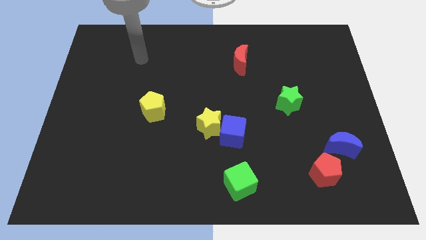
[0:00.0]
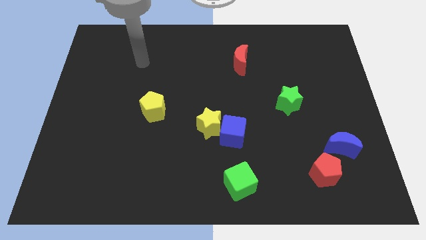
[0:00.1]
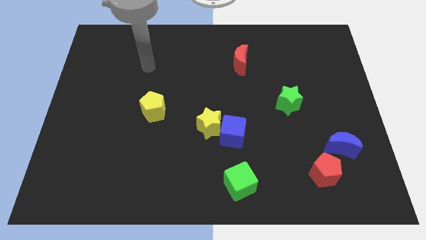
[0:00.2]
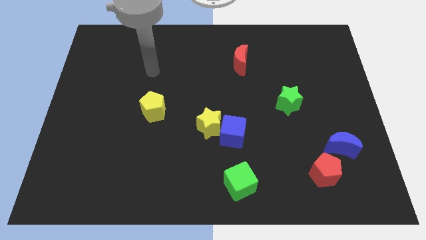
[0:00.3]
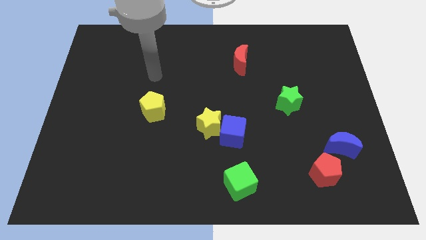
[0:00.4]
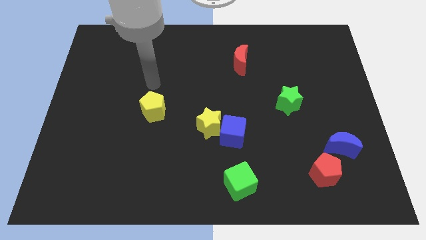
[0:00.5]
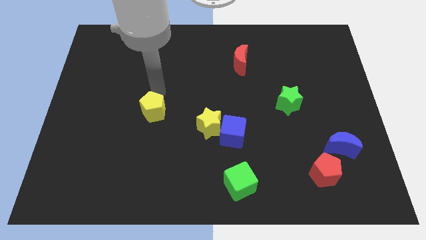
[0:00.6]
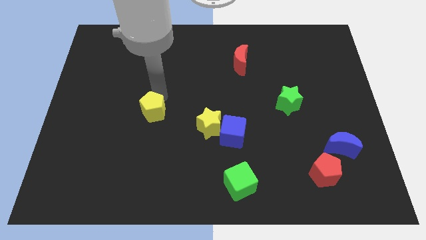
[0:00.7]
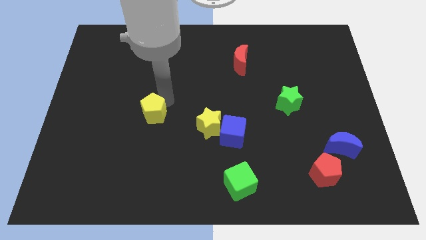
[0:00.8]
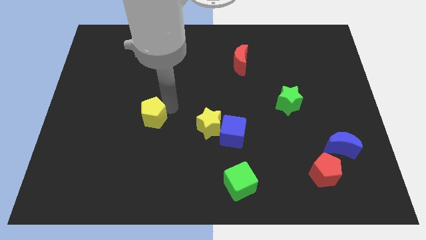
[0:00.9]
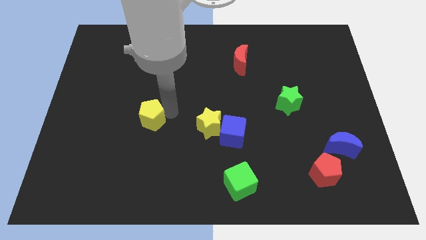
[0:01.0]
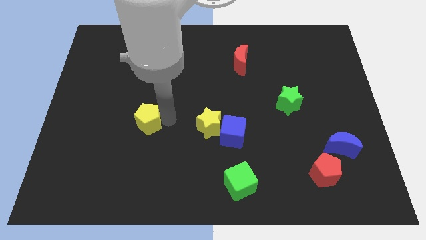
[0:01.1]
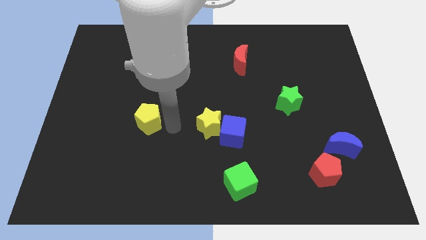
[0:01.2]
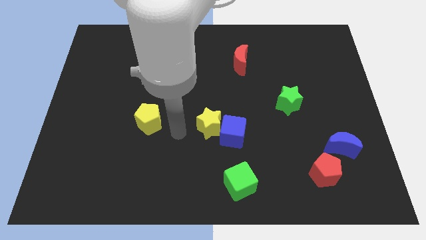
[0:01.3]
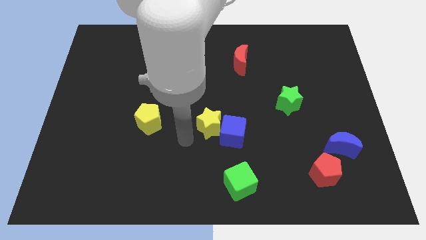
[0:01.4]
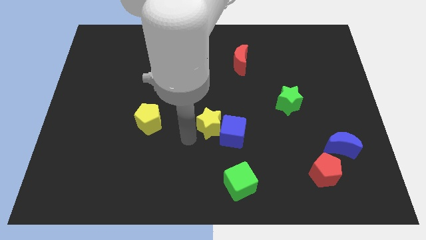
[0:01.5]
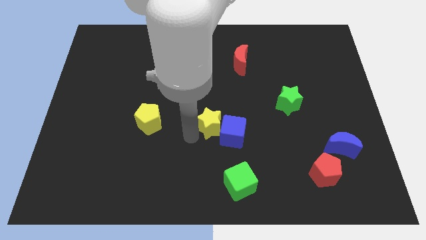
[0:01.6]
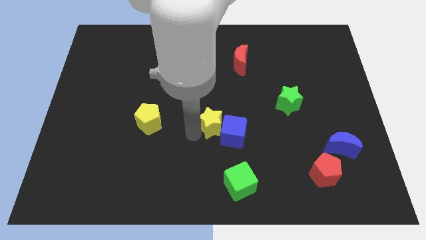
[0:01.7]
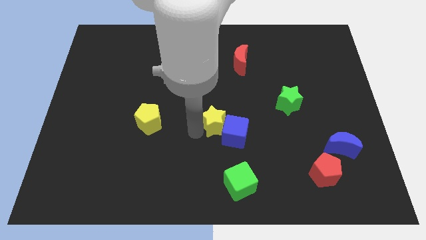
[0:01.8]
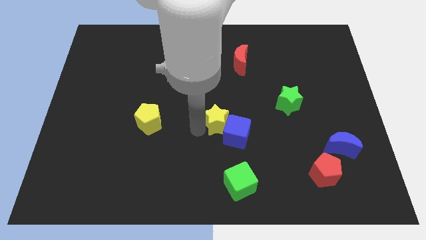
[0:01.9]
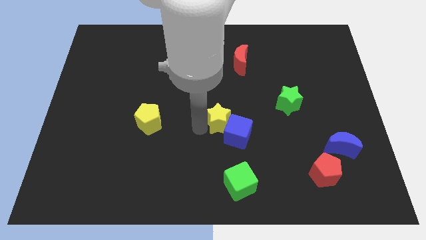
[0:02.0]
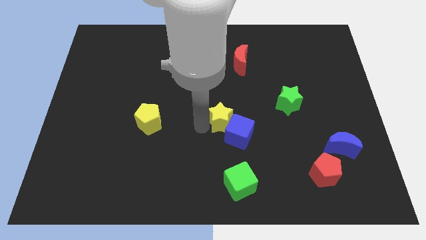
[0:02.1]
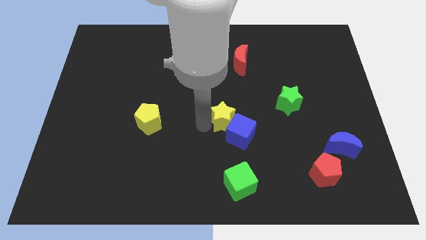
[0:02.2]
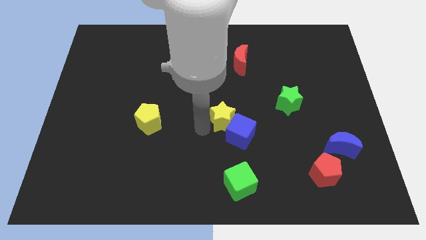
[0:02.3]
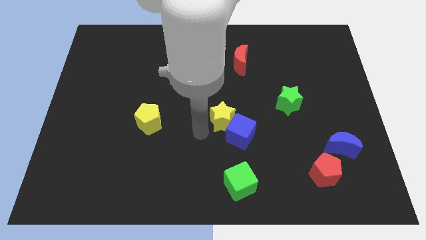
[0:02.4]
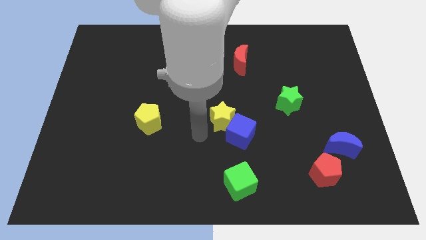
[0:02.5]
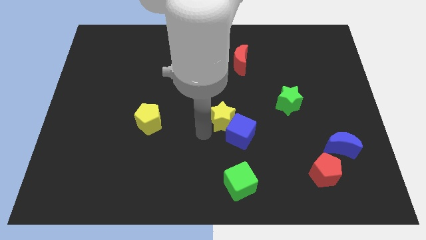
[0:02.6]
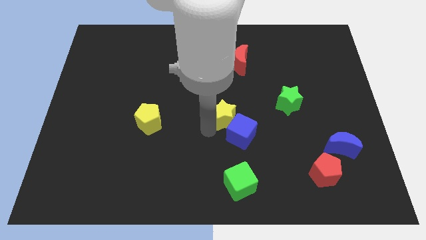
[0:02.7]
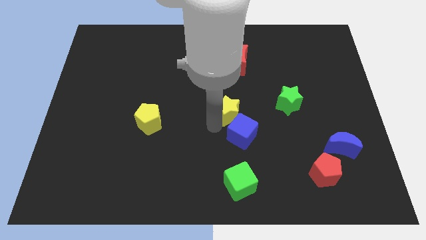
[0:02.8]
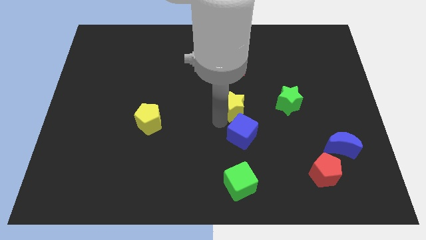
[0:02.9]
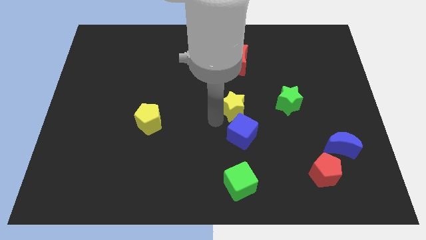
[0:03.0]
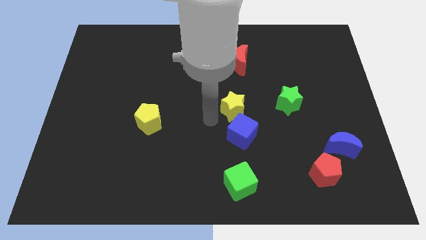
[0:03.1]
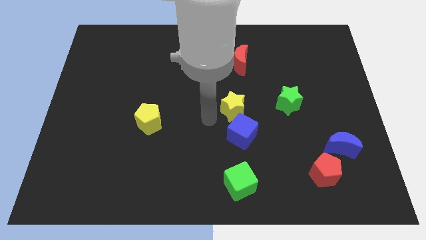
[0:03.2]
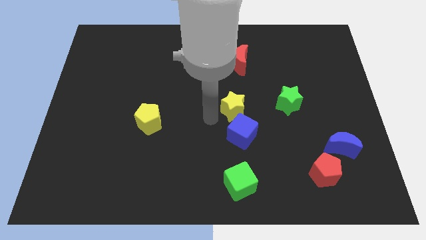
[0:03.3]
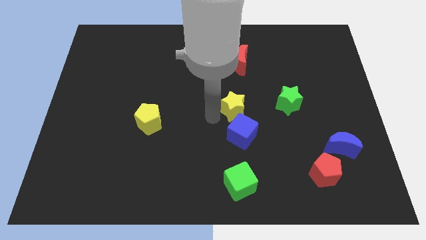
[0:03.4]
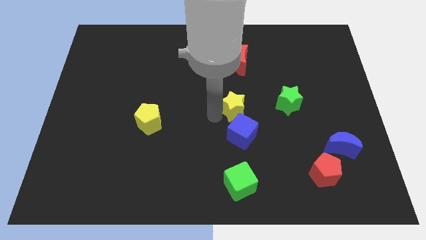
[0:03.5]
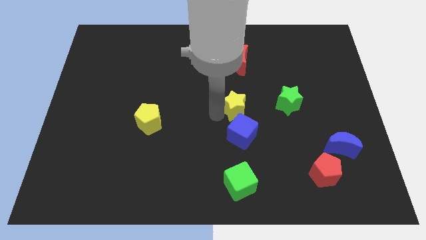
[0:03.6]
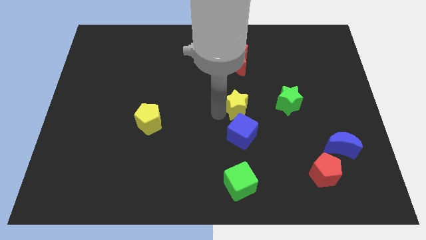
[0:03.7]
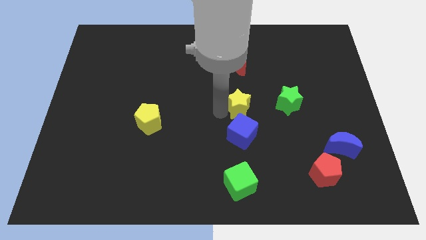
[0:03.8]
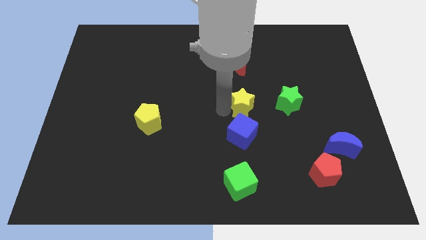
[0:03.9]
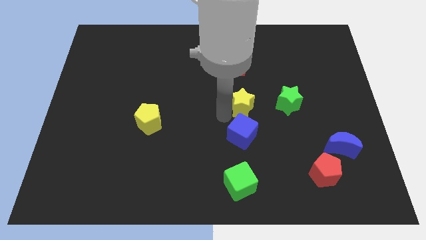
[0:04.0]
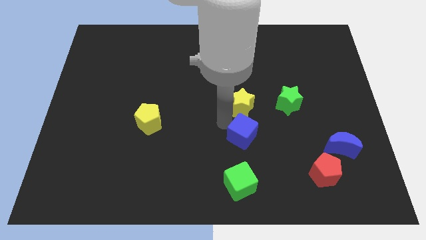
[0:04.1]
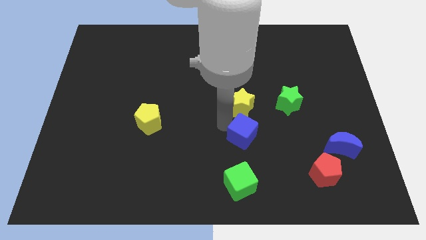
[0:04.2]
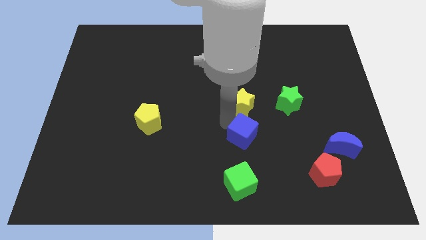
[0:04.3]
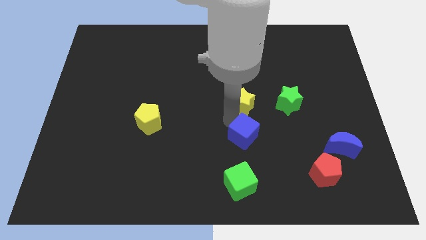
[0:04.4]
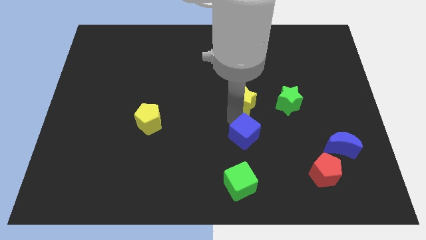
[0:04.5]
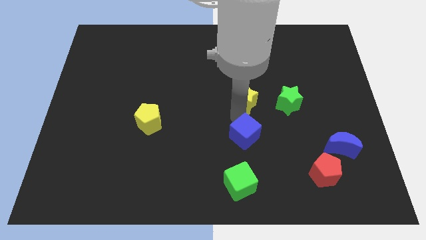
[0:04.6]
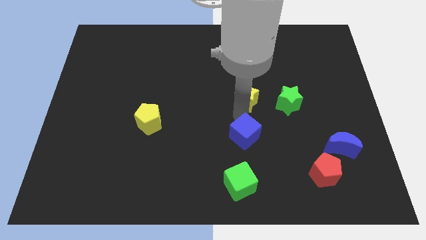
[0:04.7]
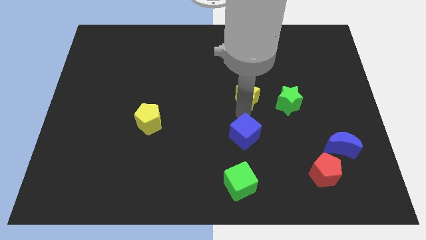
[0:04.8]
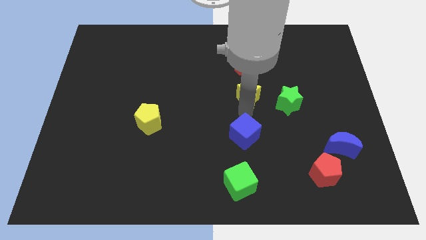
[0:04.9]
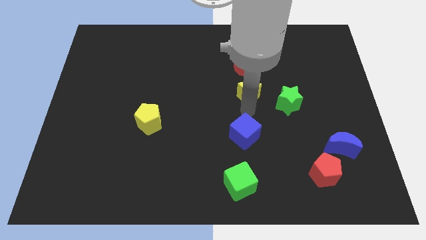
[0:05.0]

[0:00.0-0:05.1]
put the yellow star diagonally up and to the left of the green star

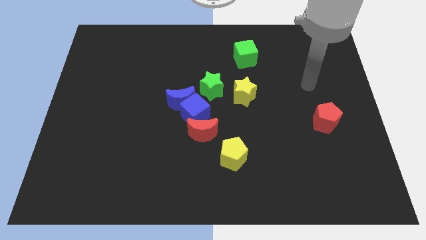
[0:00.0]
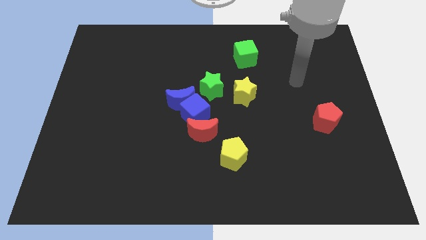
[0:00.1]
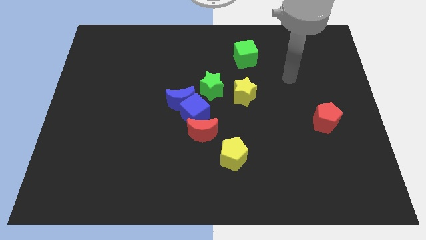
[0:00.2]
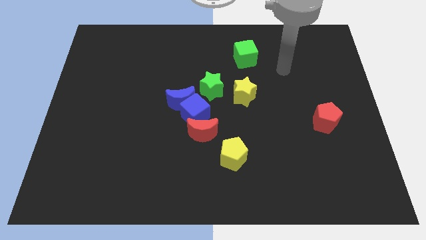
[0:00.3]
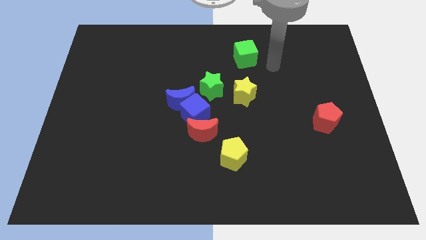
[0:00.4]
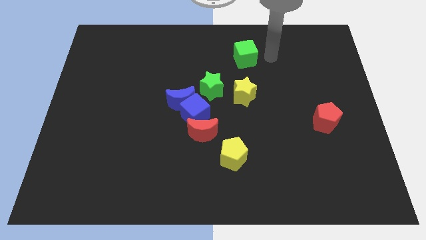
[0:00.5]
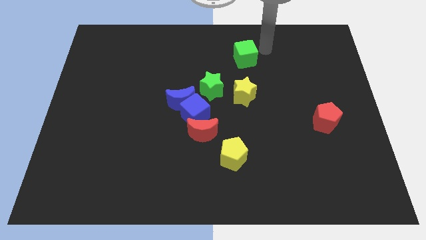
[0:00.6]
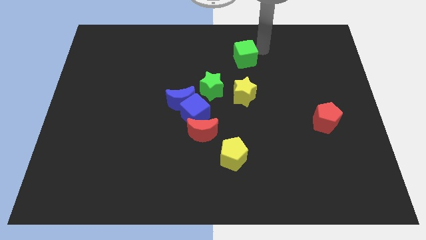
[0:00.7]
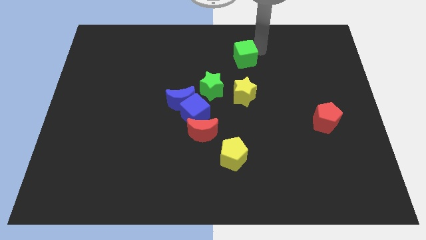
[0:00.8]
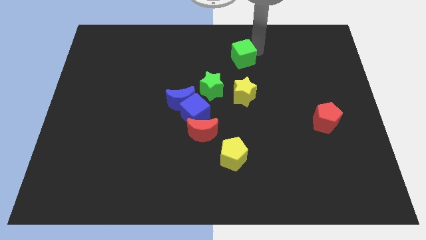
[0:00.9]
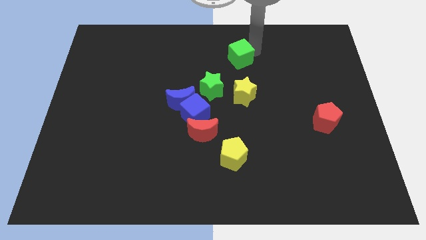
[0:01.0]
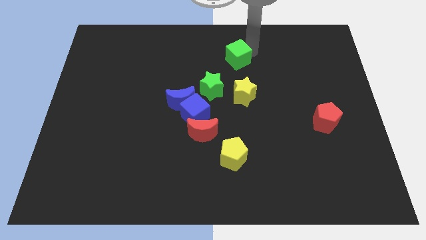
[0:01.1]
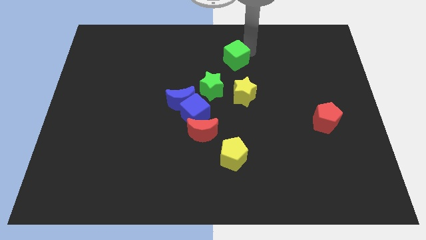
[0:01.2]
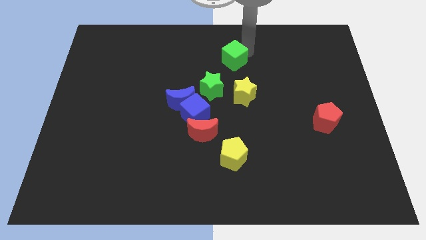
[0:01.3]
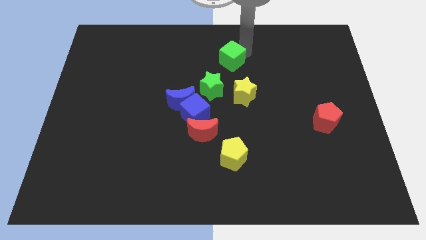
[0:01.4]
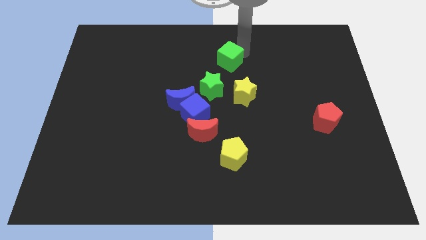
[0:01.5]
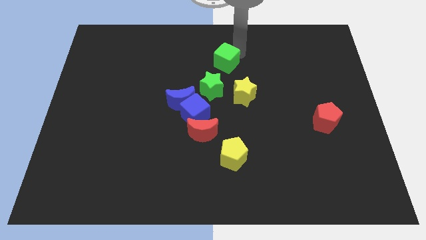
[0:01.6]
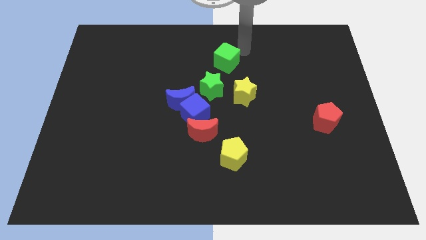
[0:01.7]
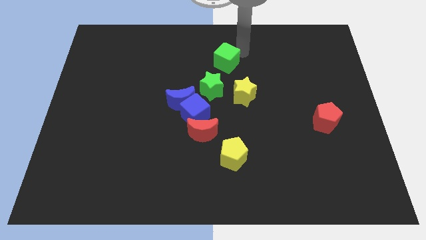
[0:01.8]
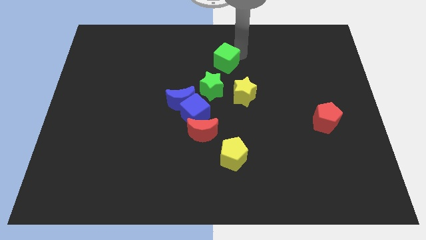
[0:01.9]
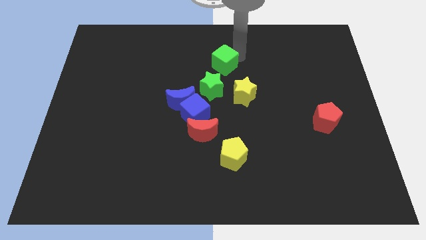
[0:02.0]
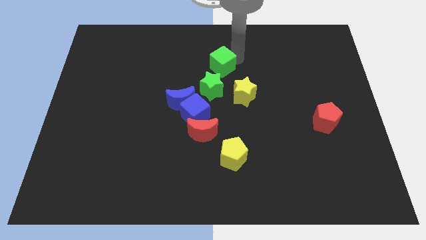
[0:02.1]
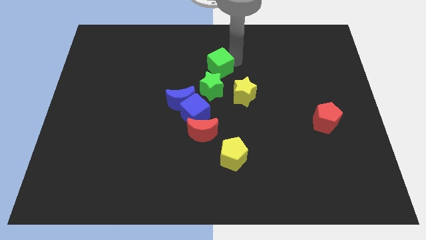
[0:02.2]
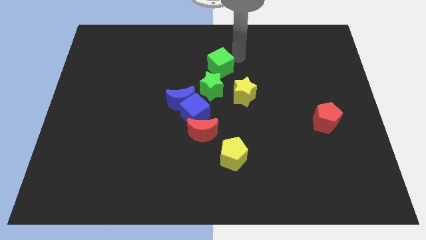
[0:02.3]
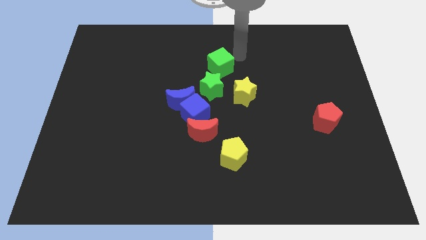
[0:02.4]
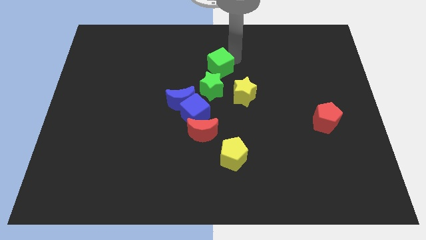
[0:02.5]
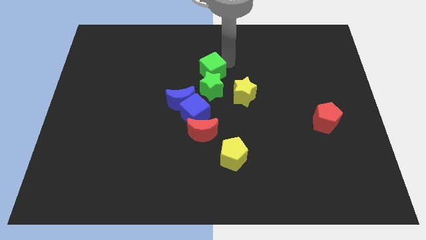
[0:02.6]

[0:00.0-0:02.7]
move the green cube to the top side of the blue cube

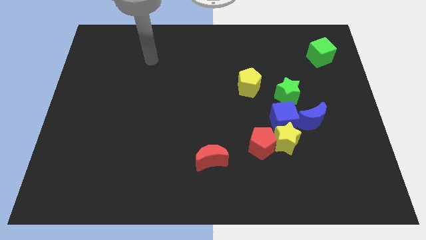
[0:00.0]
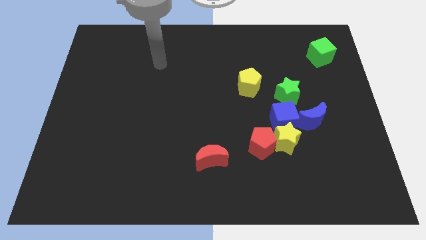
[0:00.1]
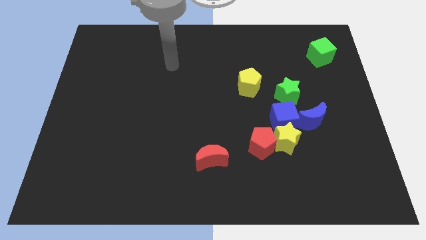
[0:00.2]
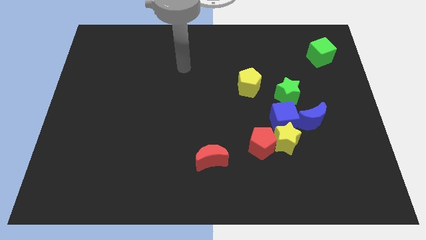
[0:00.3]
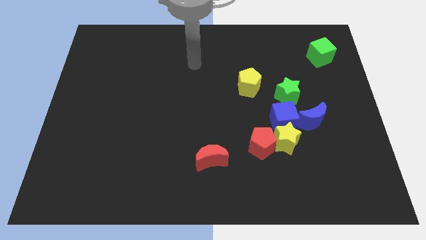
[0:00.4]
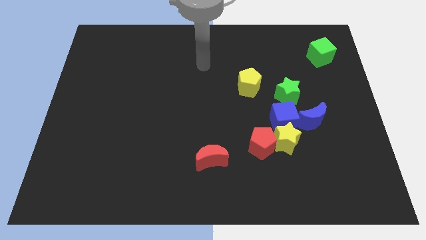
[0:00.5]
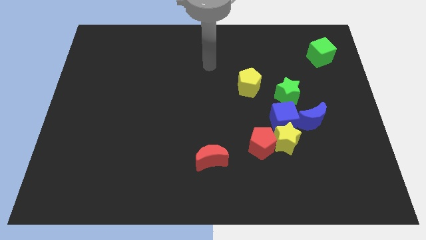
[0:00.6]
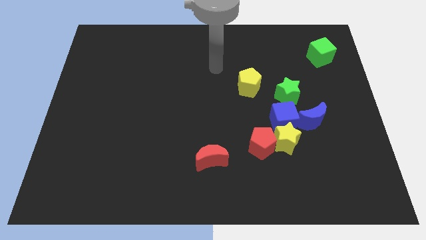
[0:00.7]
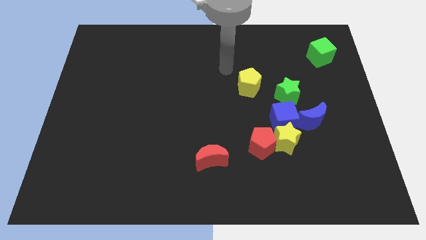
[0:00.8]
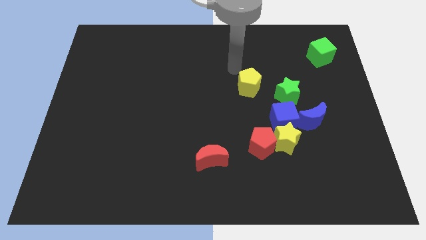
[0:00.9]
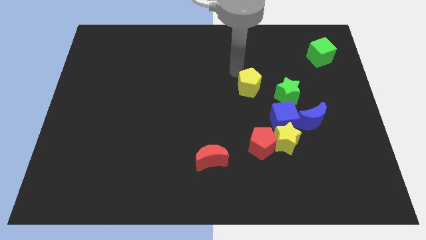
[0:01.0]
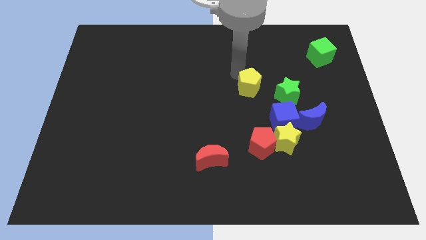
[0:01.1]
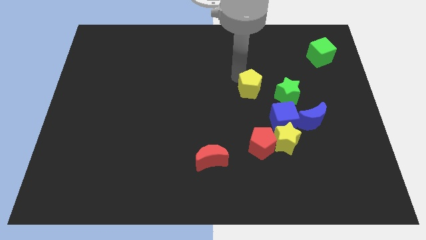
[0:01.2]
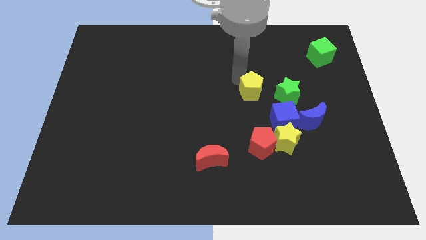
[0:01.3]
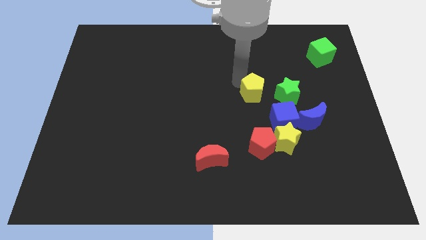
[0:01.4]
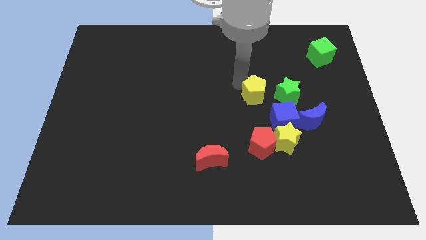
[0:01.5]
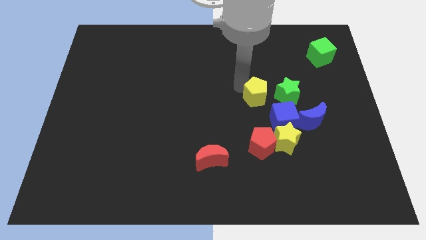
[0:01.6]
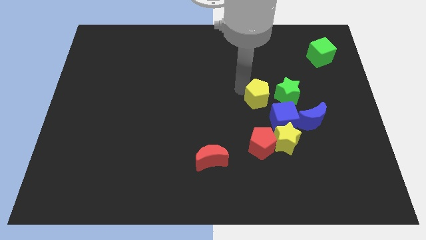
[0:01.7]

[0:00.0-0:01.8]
push the yellow pentagon to the bottom left of the green star
